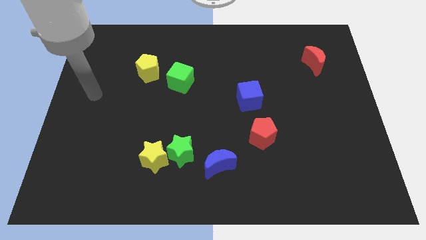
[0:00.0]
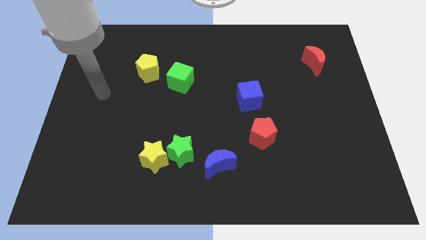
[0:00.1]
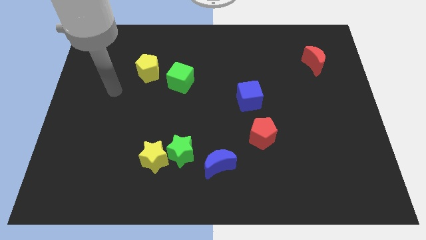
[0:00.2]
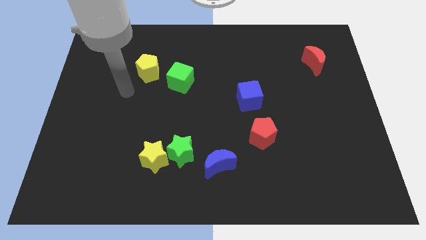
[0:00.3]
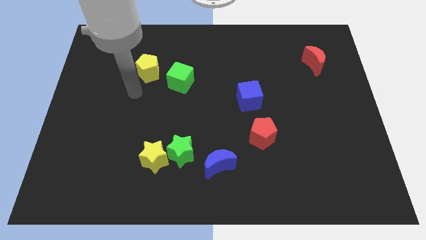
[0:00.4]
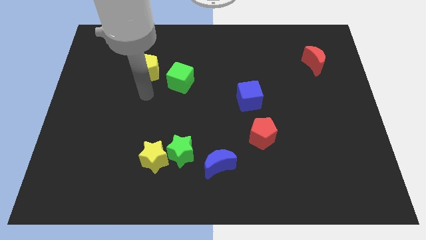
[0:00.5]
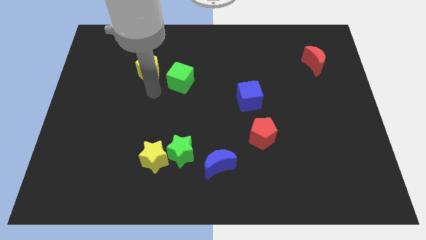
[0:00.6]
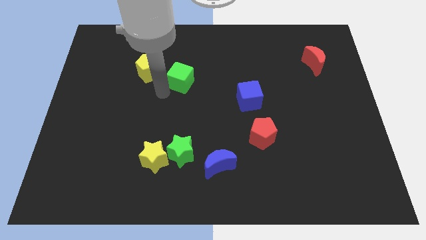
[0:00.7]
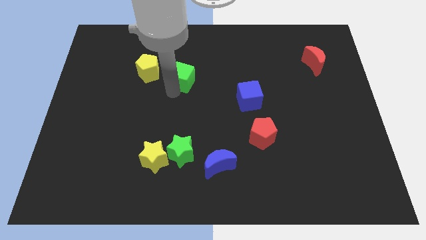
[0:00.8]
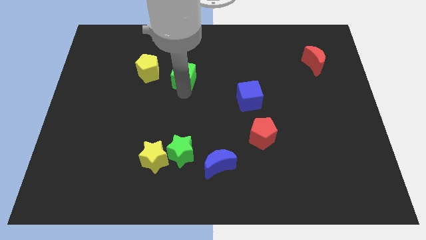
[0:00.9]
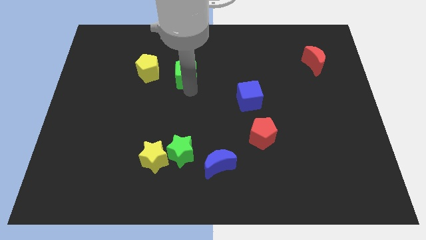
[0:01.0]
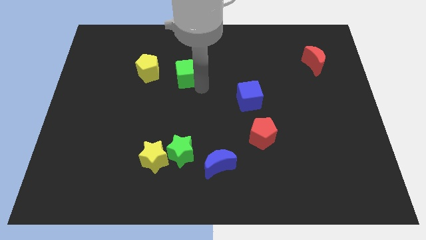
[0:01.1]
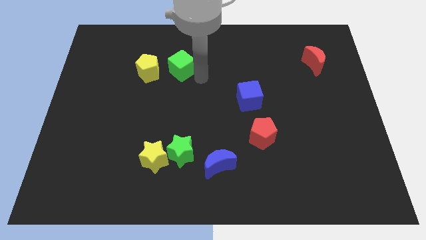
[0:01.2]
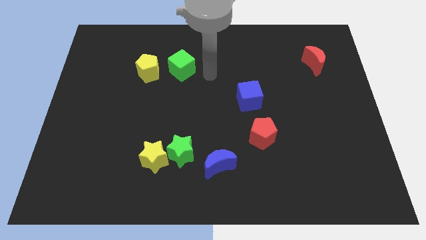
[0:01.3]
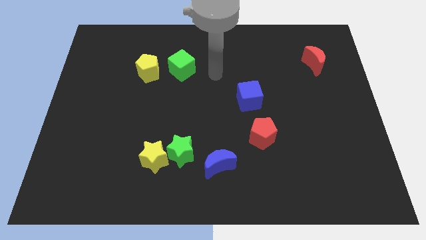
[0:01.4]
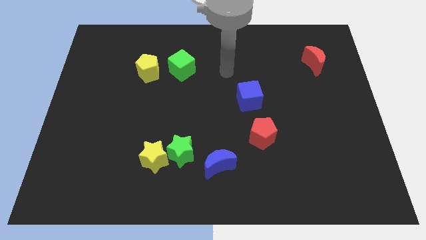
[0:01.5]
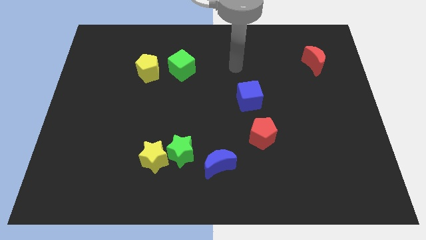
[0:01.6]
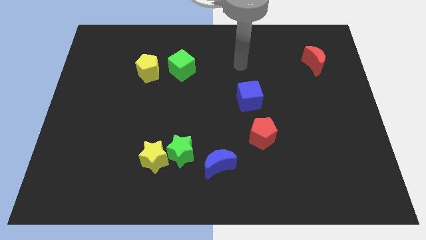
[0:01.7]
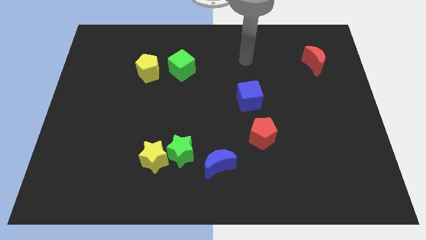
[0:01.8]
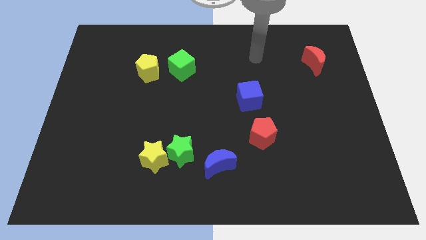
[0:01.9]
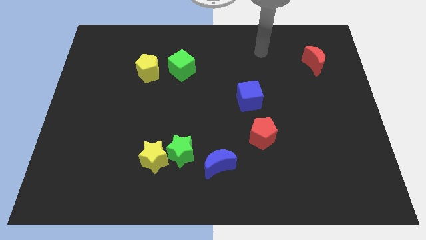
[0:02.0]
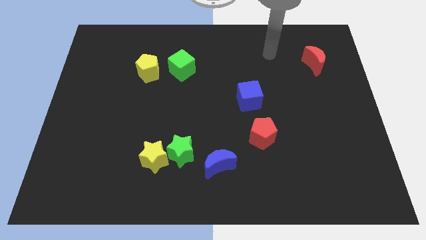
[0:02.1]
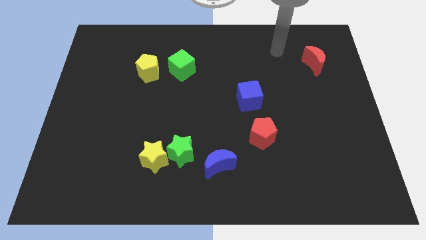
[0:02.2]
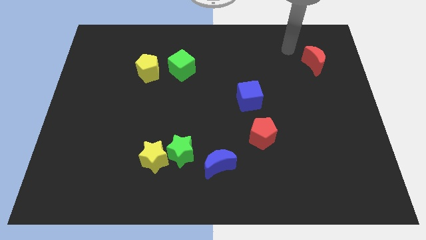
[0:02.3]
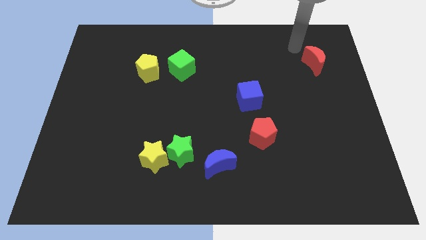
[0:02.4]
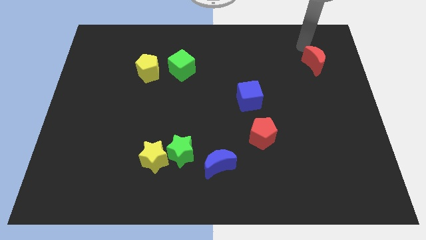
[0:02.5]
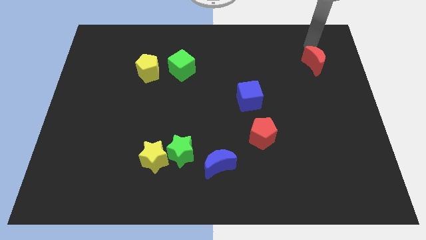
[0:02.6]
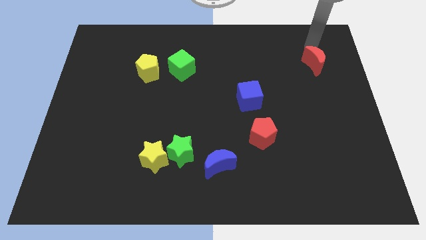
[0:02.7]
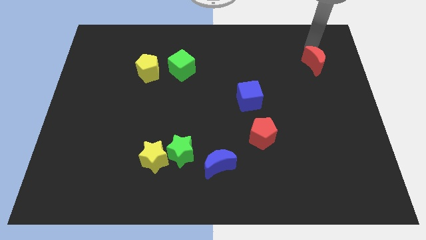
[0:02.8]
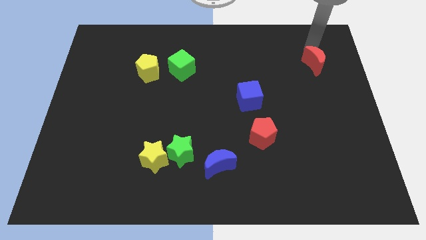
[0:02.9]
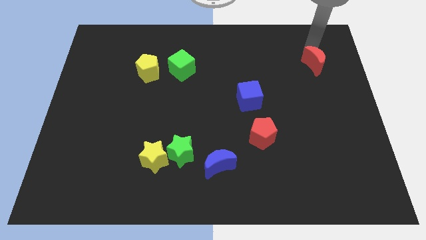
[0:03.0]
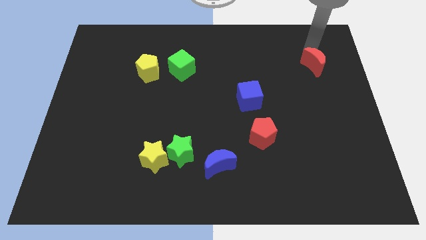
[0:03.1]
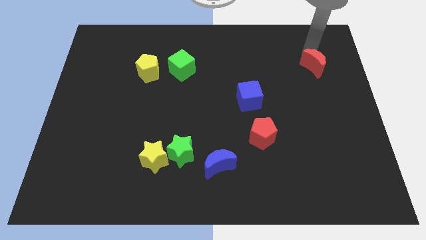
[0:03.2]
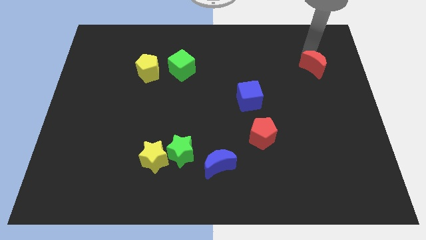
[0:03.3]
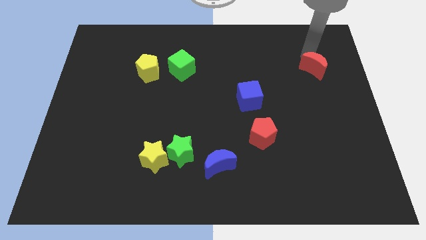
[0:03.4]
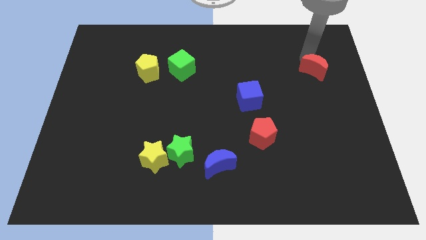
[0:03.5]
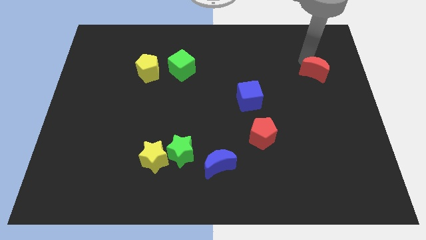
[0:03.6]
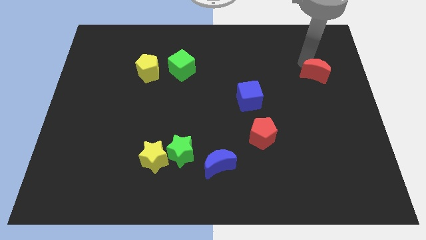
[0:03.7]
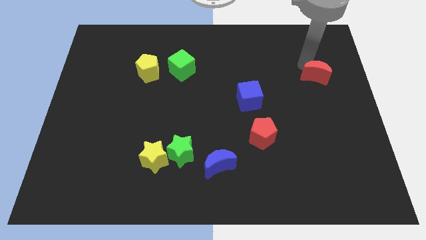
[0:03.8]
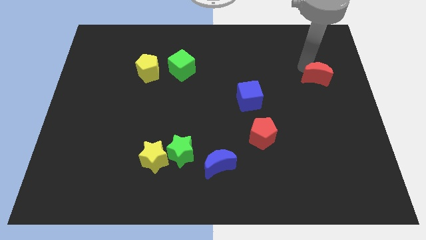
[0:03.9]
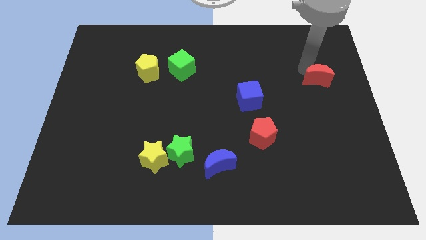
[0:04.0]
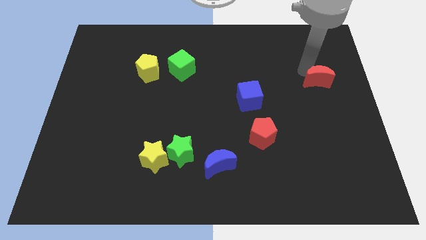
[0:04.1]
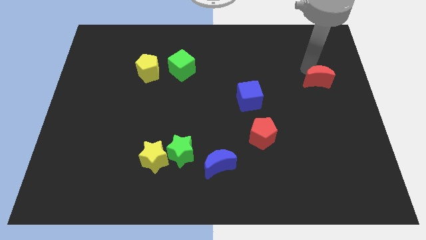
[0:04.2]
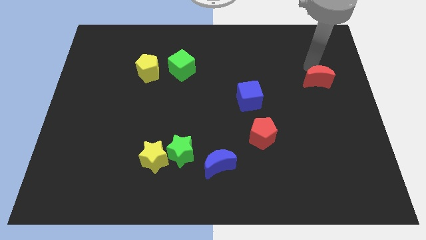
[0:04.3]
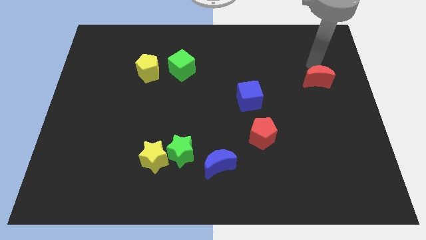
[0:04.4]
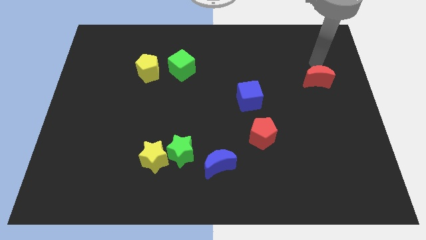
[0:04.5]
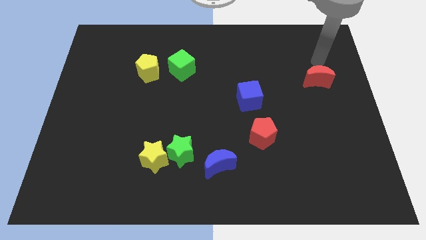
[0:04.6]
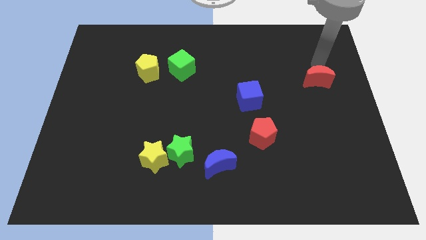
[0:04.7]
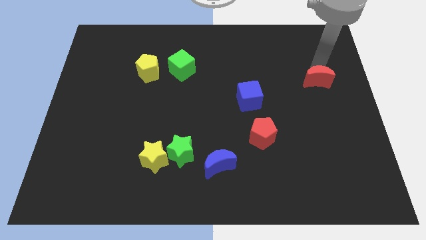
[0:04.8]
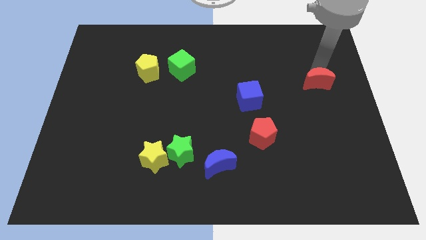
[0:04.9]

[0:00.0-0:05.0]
move the red moon a little down

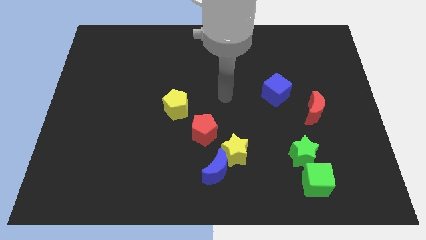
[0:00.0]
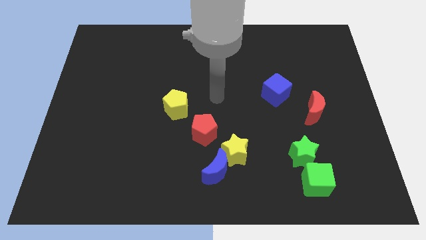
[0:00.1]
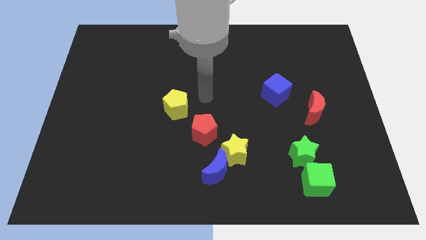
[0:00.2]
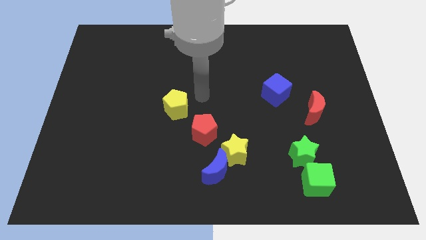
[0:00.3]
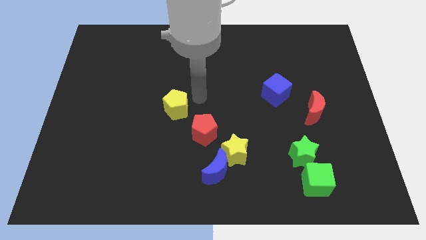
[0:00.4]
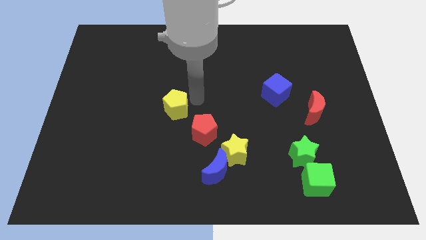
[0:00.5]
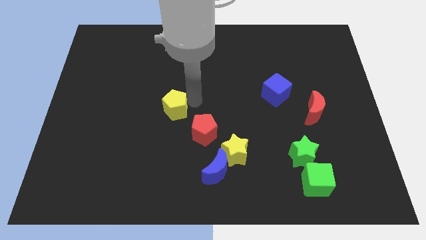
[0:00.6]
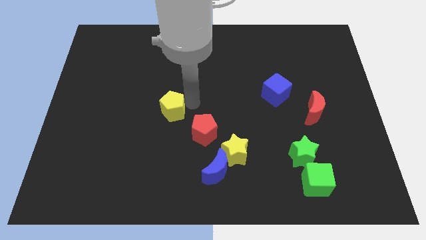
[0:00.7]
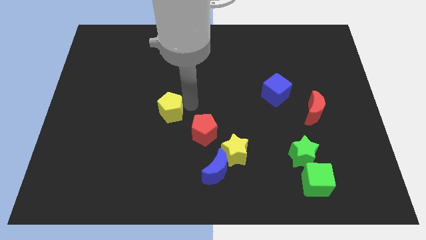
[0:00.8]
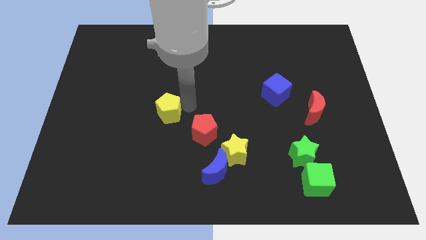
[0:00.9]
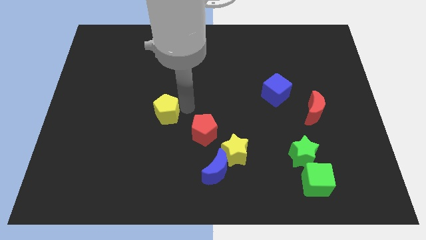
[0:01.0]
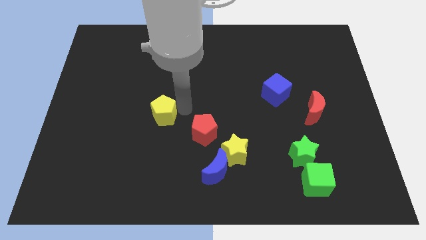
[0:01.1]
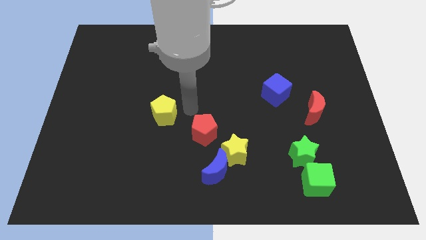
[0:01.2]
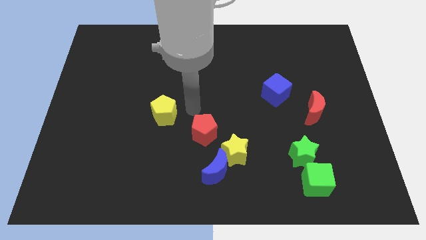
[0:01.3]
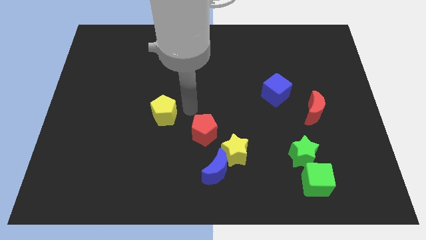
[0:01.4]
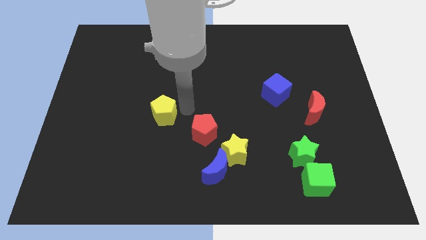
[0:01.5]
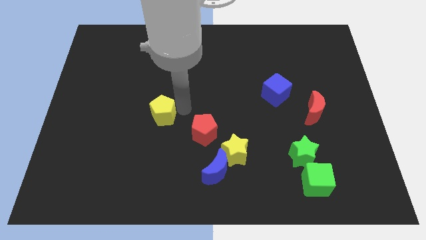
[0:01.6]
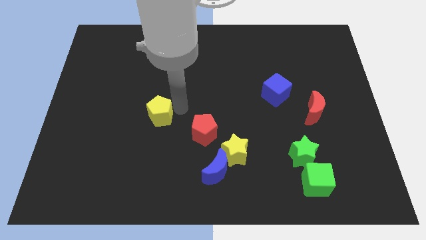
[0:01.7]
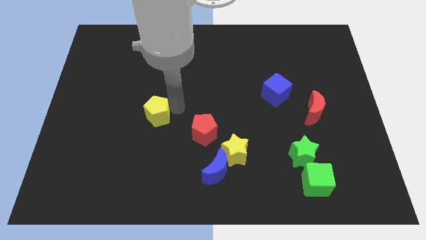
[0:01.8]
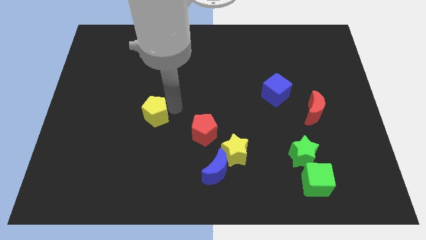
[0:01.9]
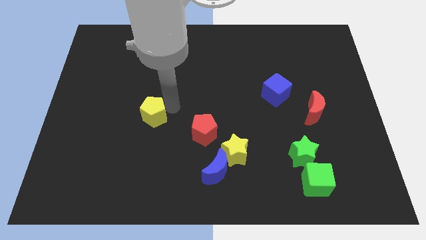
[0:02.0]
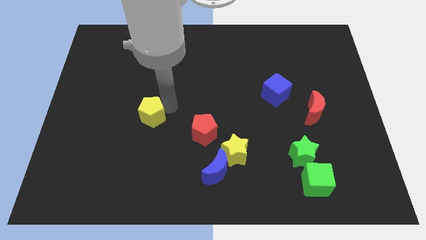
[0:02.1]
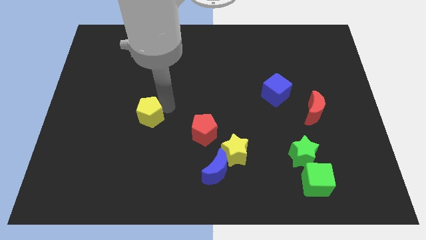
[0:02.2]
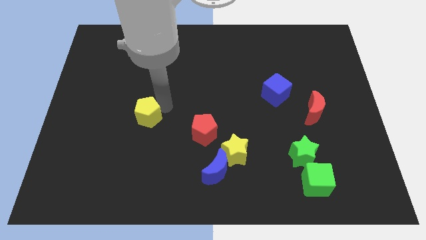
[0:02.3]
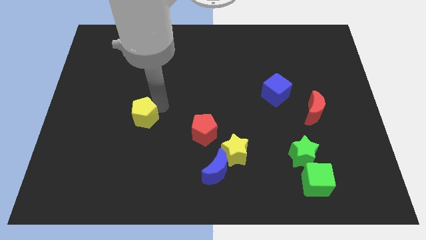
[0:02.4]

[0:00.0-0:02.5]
move the yellow pentagon slightly to the left

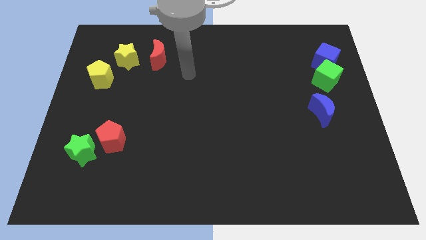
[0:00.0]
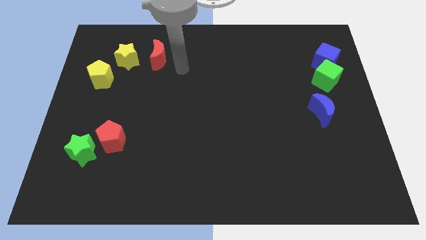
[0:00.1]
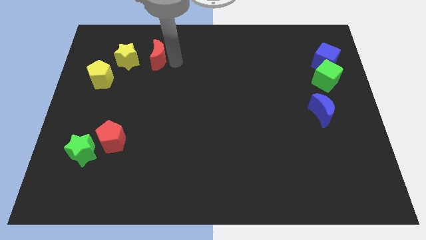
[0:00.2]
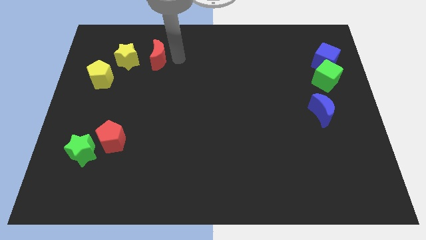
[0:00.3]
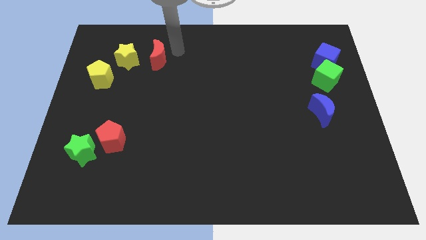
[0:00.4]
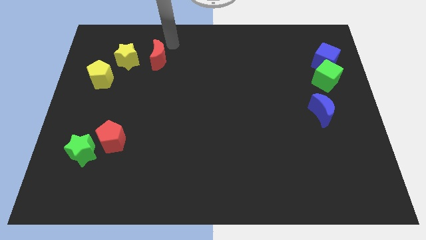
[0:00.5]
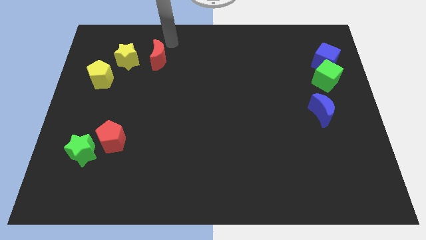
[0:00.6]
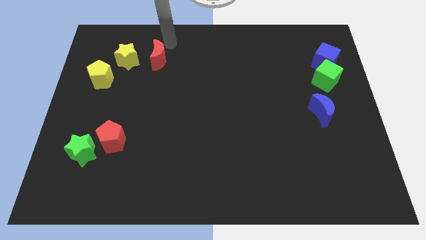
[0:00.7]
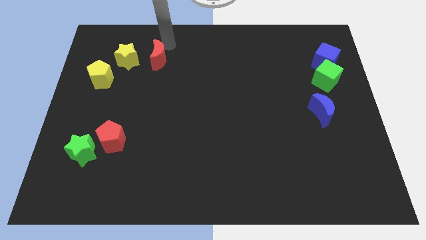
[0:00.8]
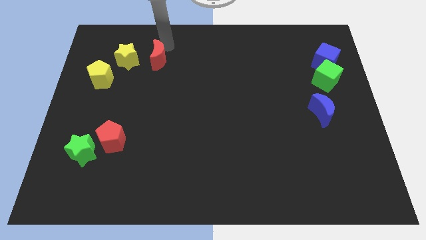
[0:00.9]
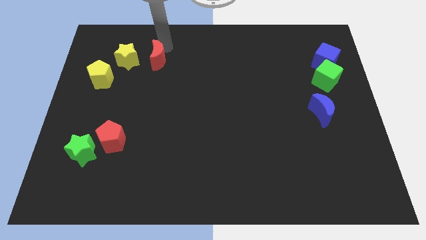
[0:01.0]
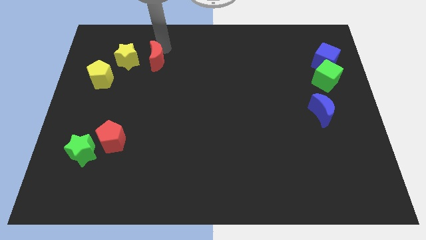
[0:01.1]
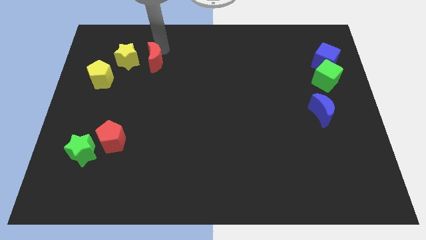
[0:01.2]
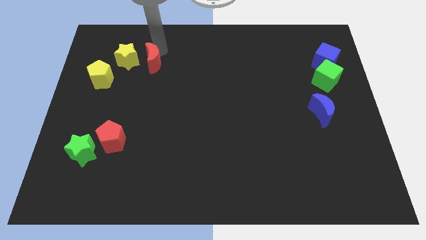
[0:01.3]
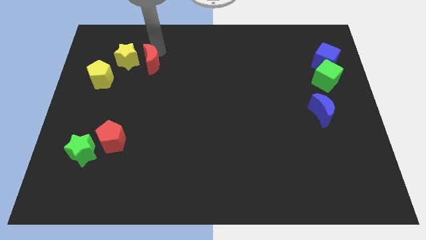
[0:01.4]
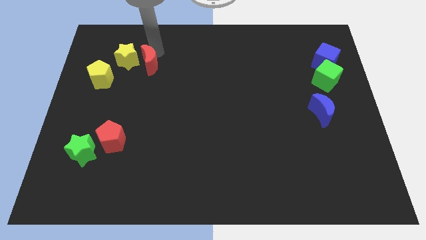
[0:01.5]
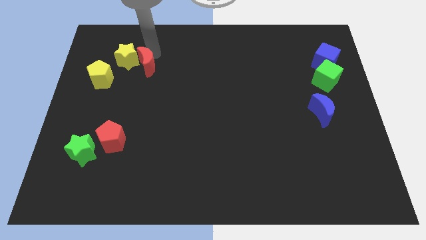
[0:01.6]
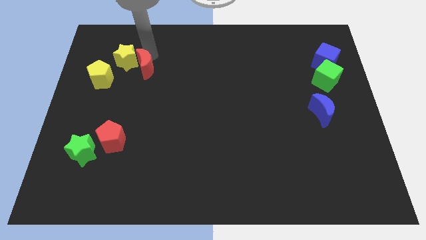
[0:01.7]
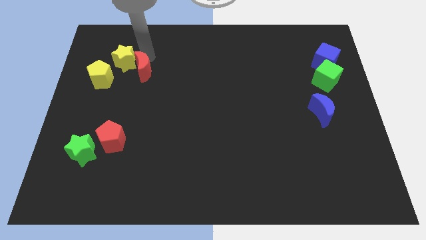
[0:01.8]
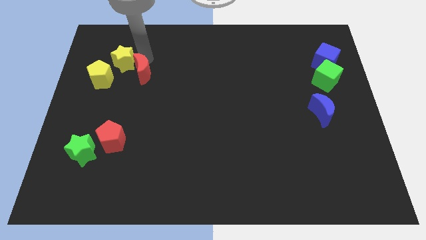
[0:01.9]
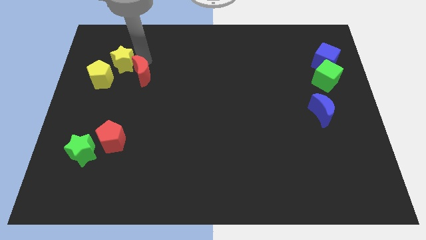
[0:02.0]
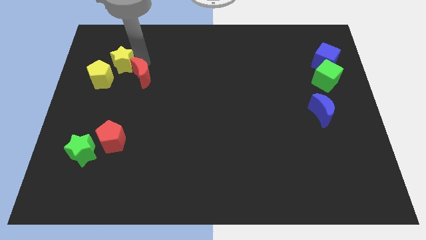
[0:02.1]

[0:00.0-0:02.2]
slide the red moon a bit downwards and left diagonally
